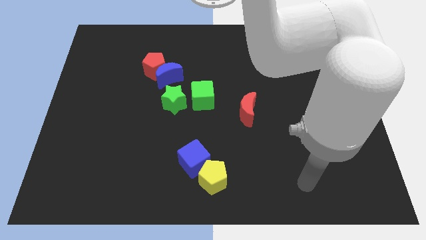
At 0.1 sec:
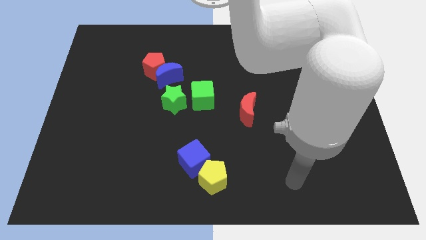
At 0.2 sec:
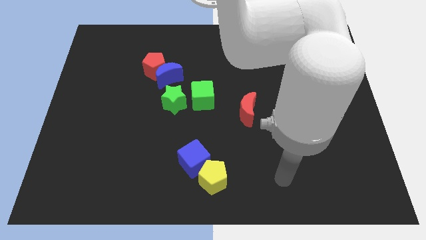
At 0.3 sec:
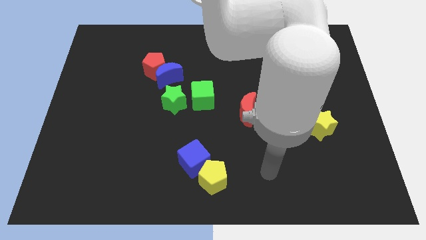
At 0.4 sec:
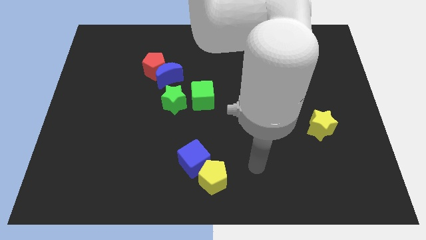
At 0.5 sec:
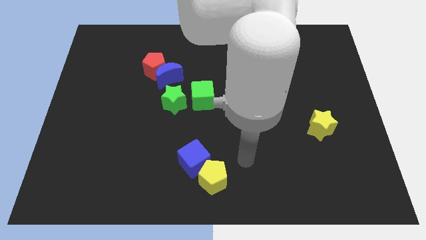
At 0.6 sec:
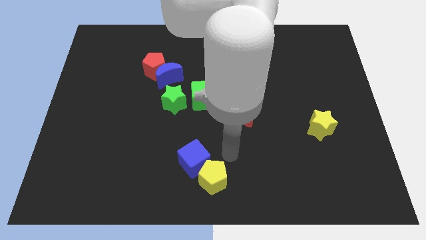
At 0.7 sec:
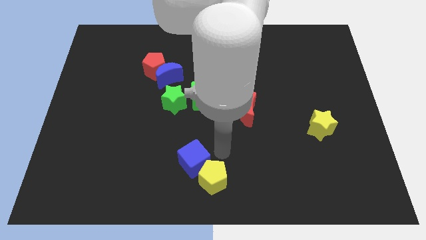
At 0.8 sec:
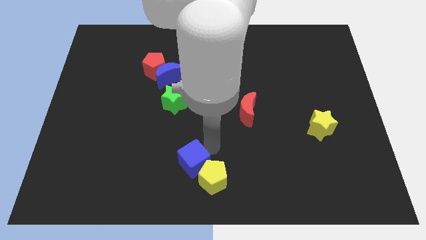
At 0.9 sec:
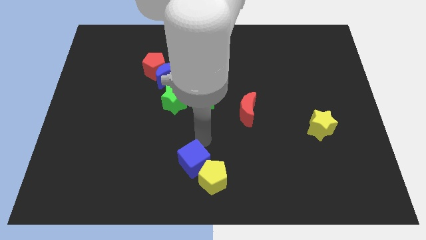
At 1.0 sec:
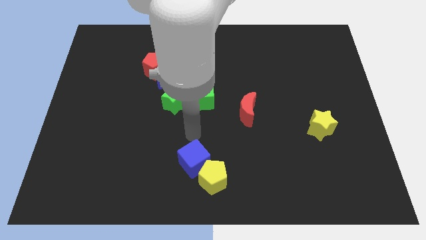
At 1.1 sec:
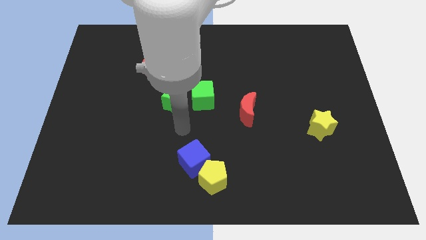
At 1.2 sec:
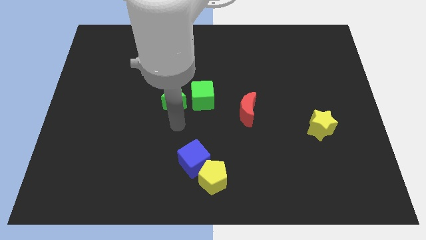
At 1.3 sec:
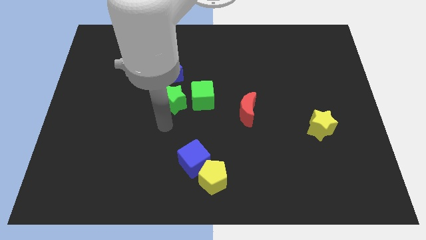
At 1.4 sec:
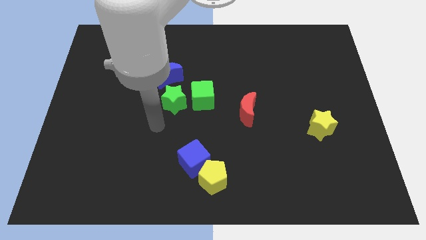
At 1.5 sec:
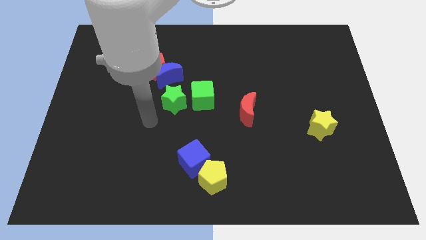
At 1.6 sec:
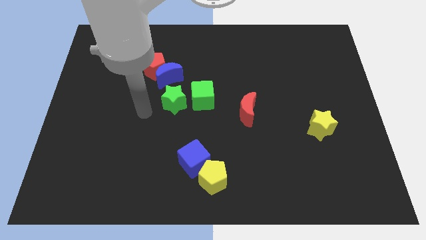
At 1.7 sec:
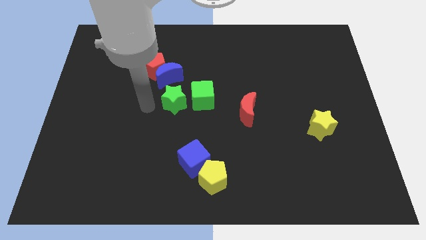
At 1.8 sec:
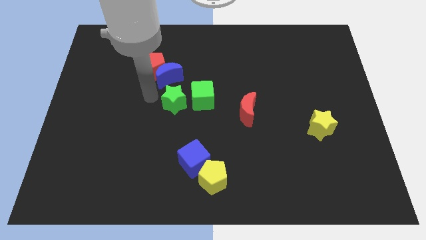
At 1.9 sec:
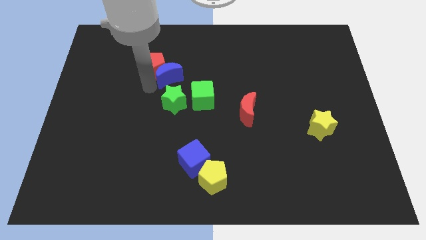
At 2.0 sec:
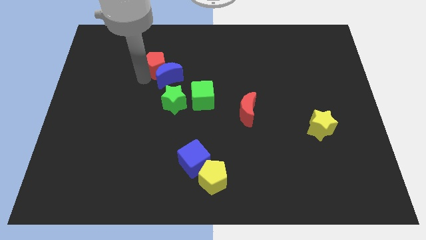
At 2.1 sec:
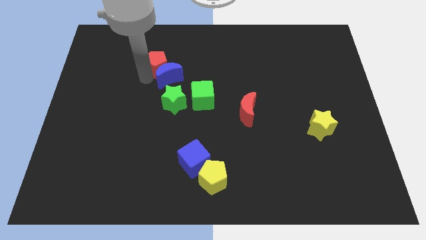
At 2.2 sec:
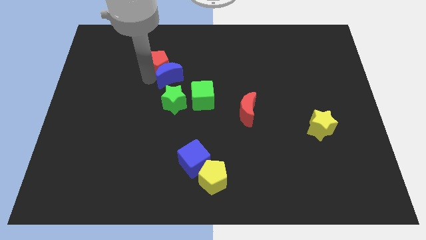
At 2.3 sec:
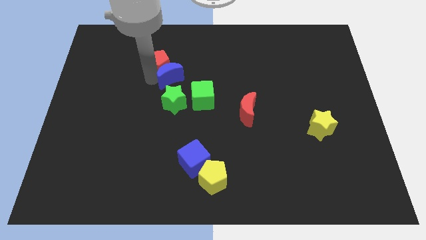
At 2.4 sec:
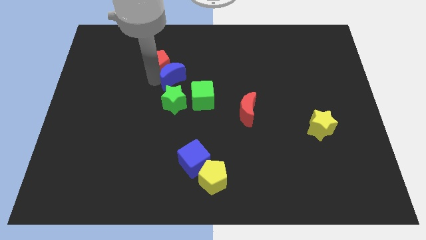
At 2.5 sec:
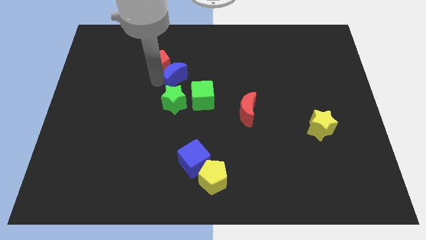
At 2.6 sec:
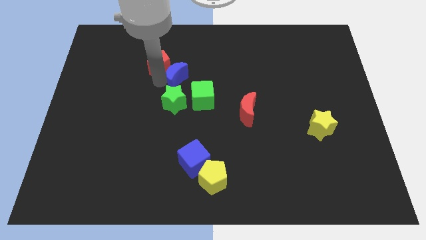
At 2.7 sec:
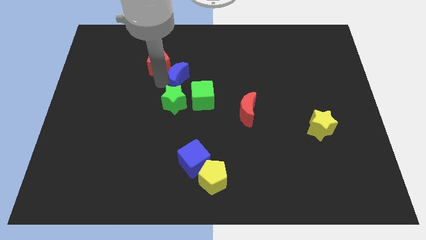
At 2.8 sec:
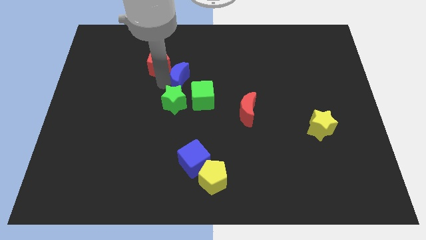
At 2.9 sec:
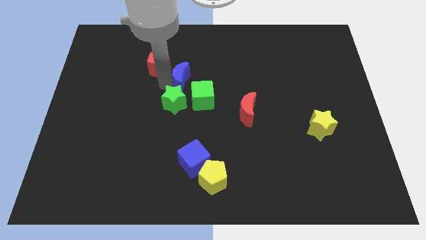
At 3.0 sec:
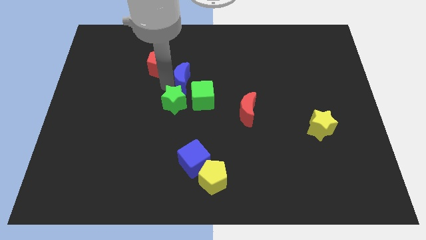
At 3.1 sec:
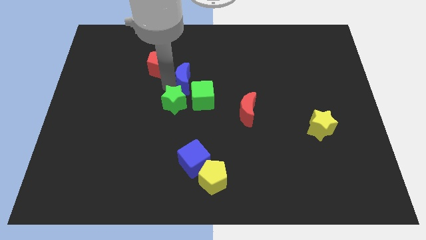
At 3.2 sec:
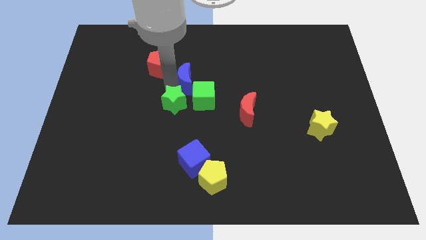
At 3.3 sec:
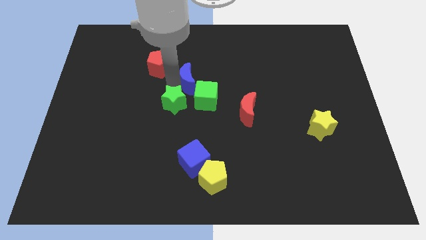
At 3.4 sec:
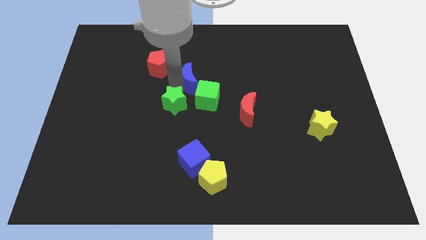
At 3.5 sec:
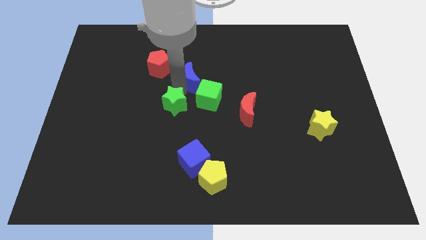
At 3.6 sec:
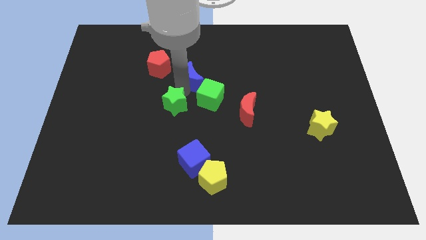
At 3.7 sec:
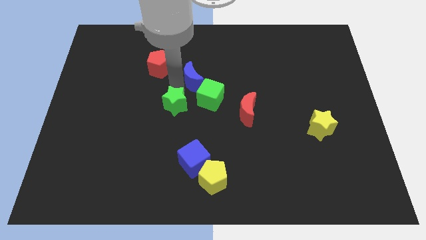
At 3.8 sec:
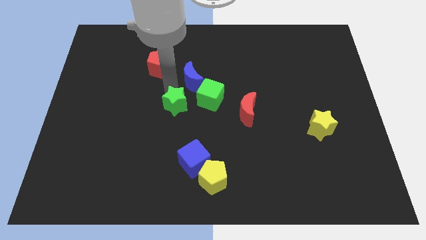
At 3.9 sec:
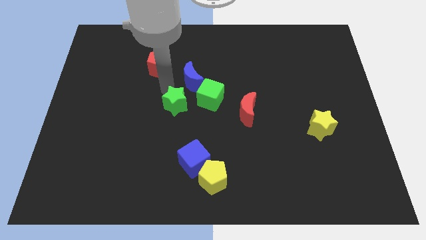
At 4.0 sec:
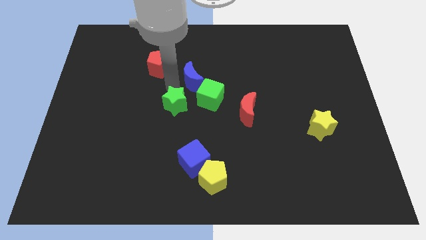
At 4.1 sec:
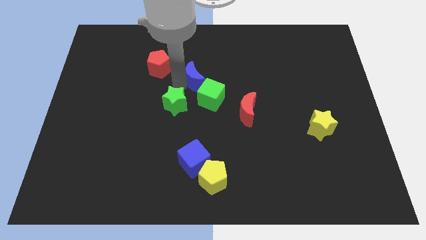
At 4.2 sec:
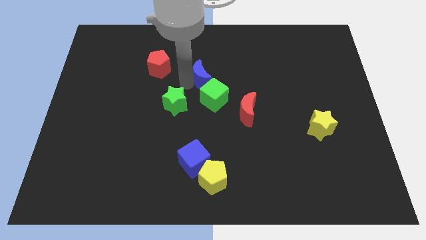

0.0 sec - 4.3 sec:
slide the blue moon somewhat to the right

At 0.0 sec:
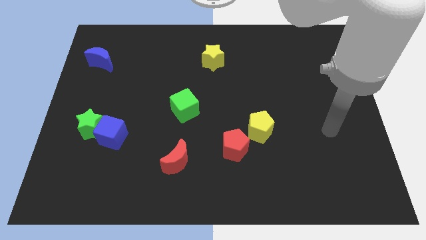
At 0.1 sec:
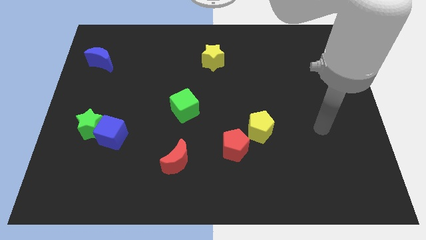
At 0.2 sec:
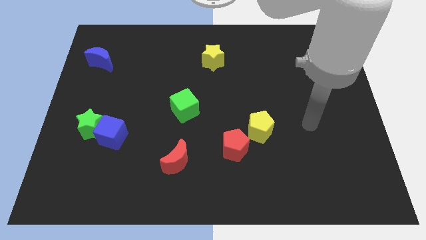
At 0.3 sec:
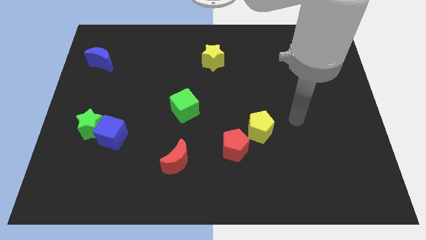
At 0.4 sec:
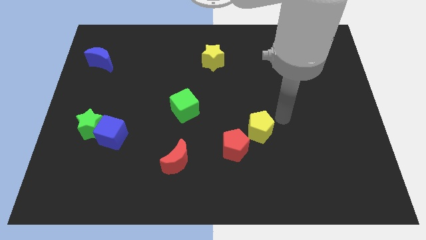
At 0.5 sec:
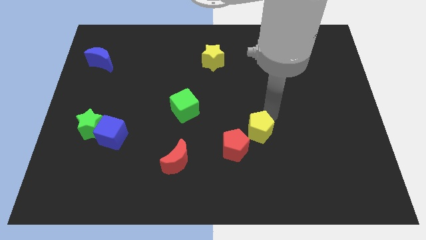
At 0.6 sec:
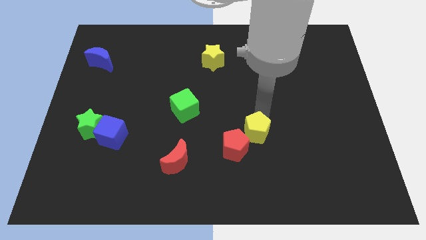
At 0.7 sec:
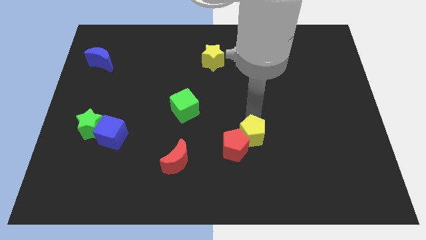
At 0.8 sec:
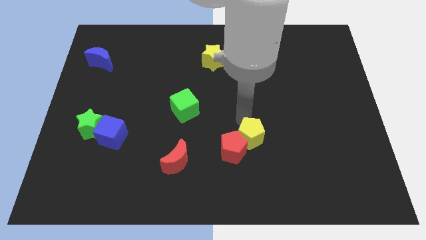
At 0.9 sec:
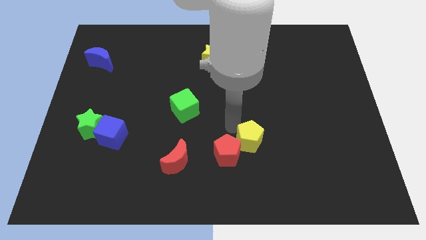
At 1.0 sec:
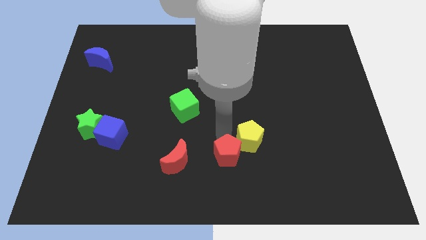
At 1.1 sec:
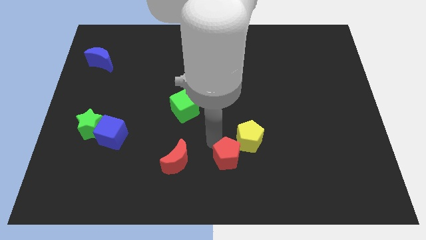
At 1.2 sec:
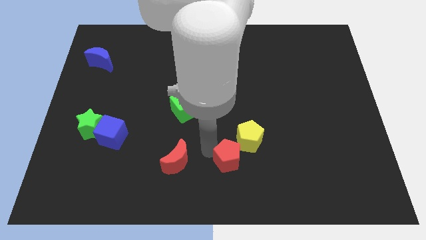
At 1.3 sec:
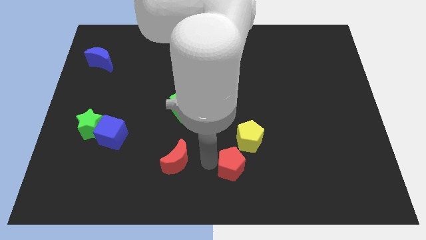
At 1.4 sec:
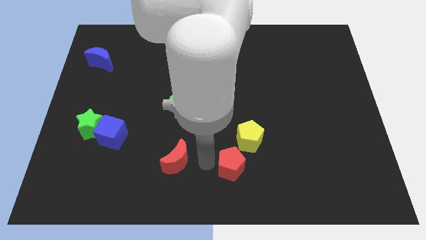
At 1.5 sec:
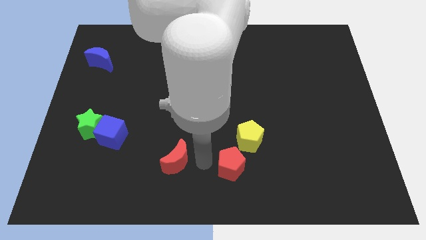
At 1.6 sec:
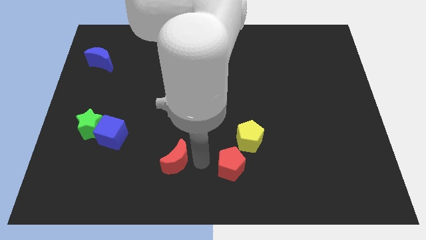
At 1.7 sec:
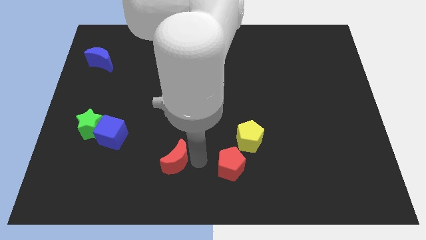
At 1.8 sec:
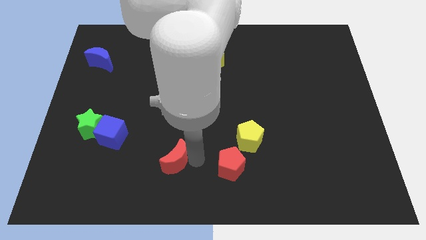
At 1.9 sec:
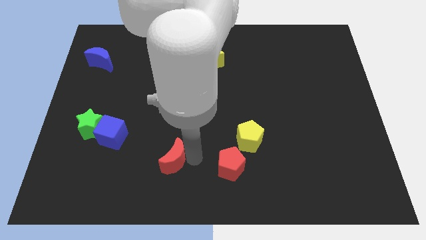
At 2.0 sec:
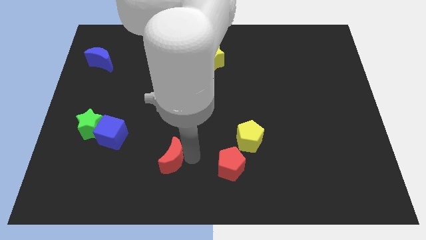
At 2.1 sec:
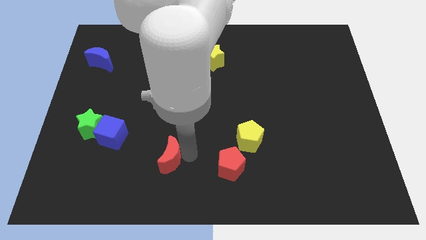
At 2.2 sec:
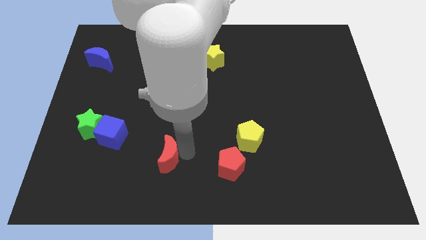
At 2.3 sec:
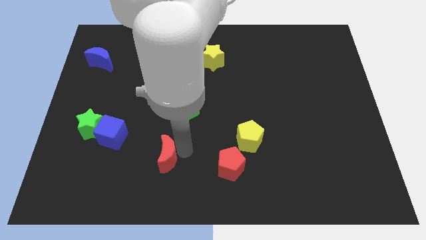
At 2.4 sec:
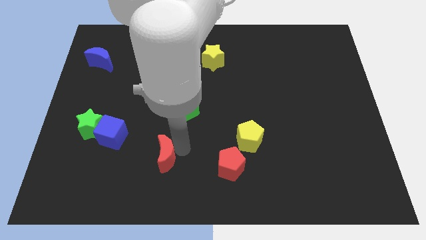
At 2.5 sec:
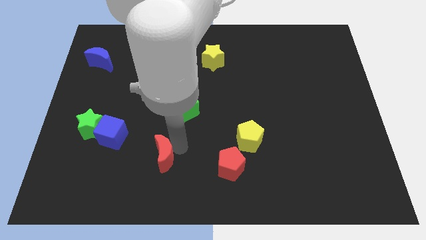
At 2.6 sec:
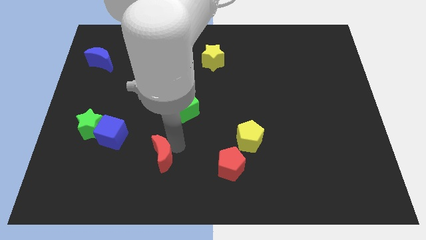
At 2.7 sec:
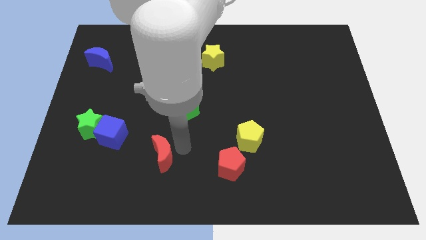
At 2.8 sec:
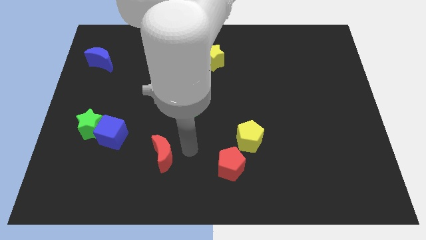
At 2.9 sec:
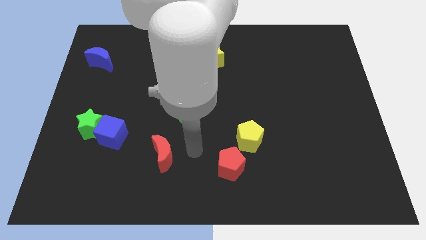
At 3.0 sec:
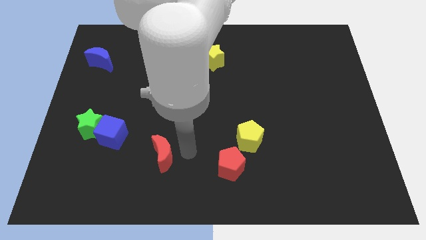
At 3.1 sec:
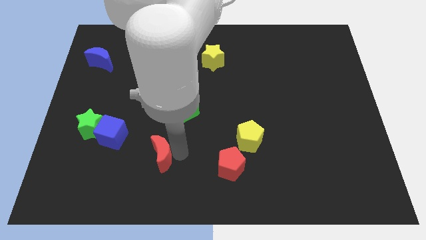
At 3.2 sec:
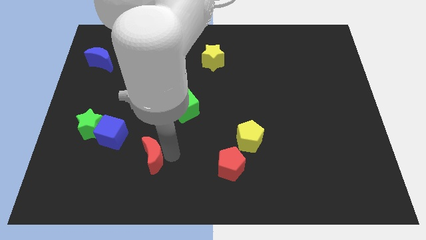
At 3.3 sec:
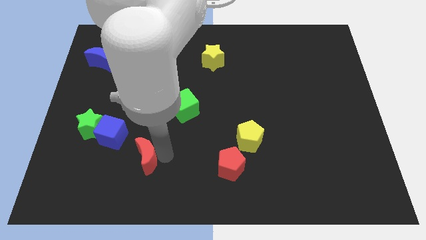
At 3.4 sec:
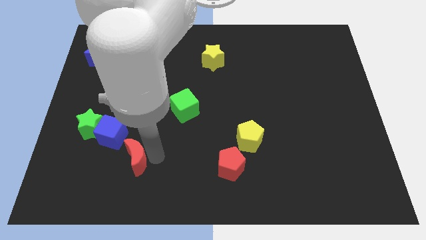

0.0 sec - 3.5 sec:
slightly move the red moon left

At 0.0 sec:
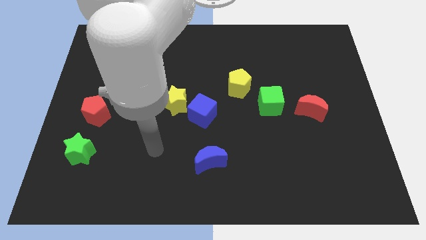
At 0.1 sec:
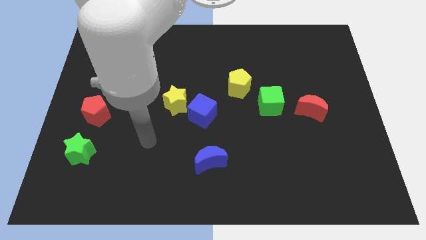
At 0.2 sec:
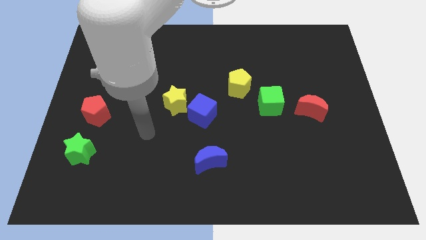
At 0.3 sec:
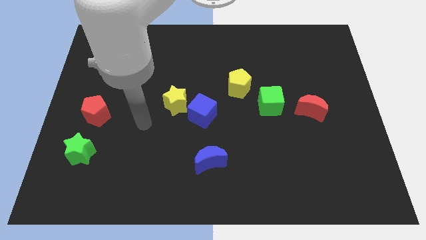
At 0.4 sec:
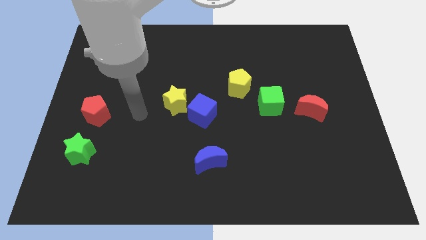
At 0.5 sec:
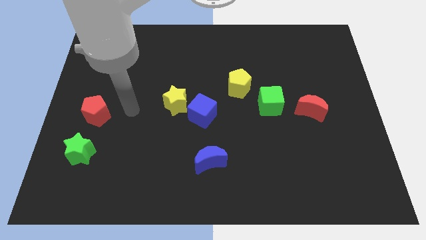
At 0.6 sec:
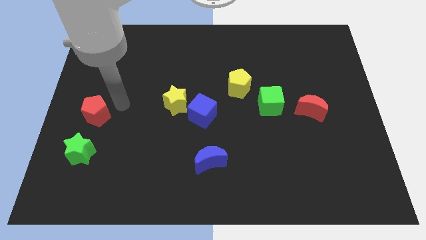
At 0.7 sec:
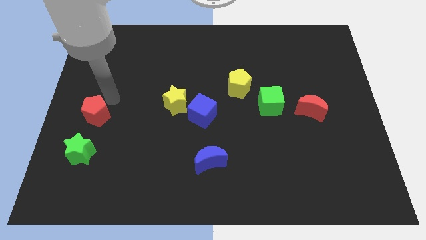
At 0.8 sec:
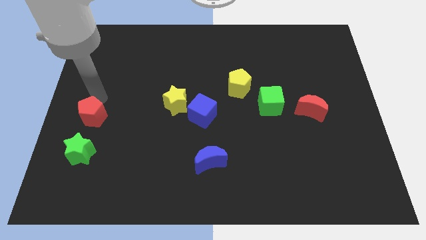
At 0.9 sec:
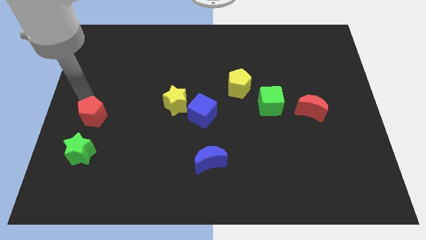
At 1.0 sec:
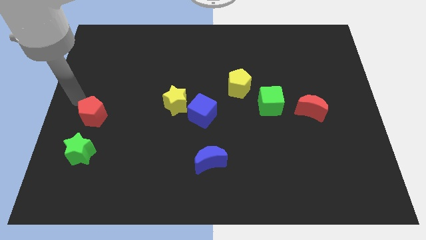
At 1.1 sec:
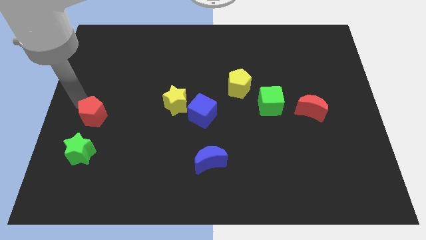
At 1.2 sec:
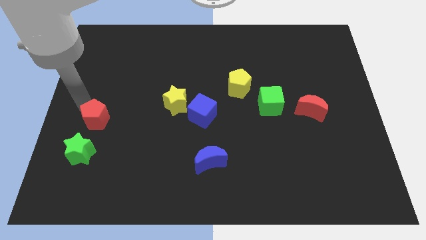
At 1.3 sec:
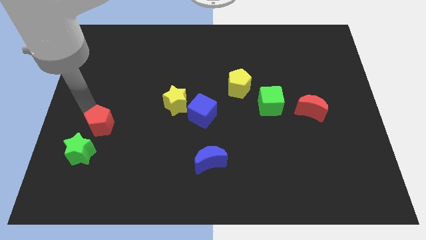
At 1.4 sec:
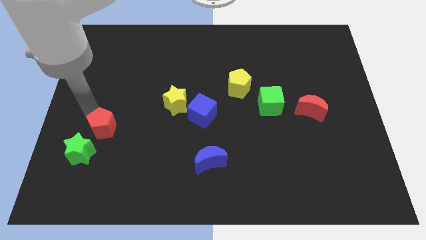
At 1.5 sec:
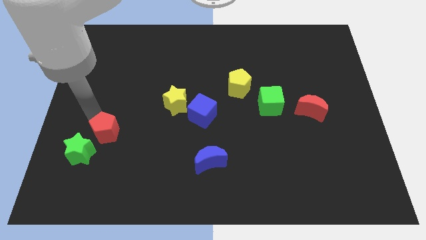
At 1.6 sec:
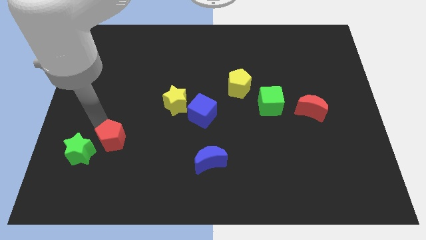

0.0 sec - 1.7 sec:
slightly move the red pentagon downwards and to the right
